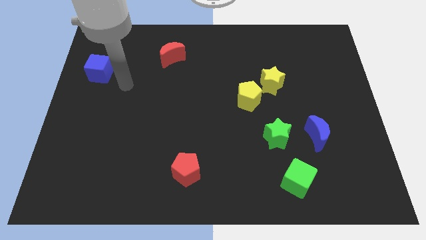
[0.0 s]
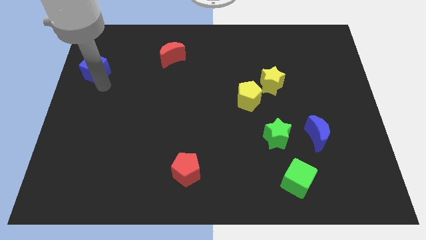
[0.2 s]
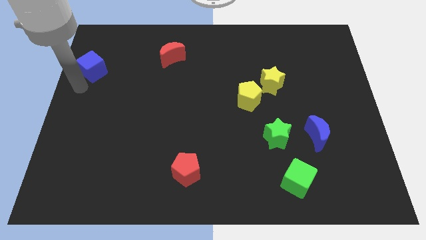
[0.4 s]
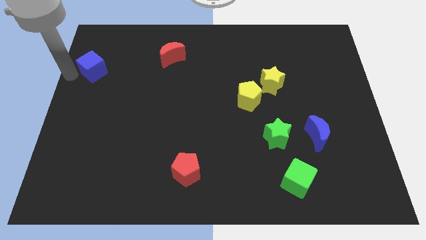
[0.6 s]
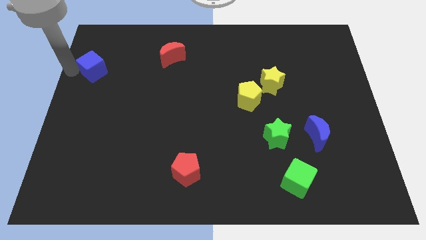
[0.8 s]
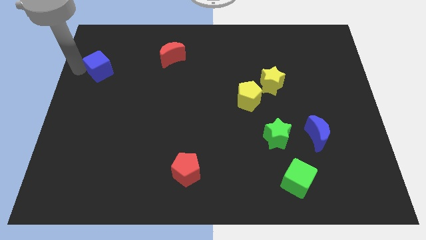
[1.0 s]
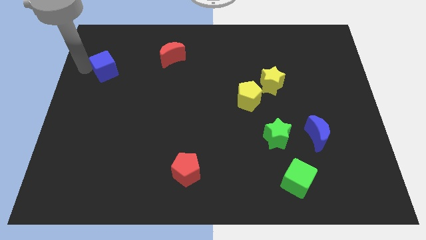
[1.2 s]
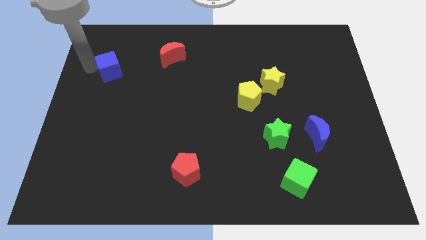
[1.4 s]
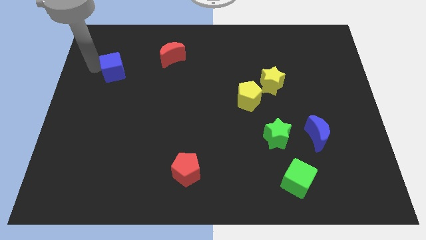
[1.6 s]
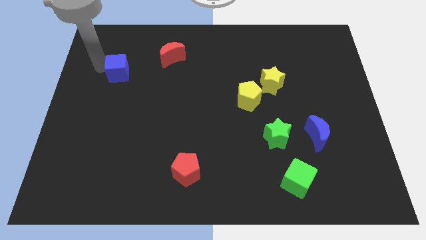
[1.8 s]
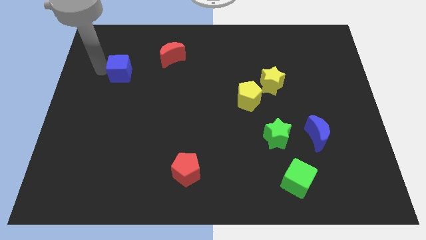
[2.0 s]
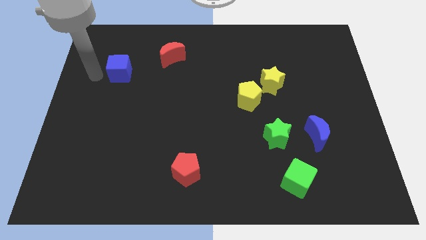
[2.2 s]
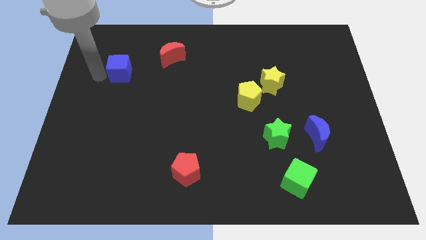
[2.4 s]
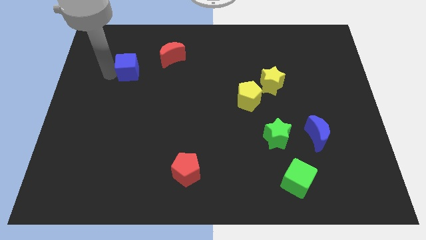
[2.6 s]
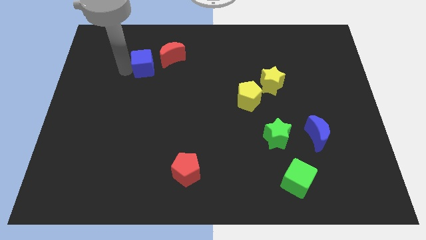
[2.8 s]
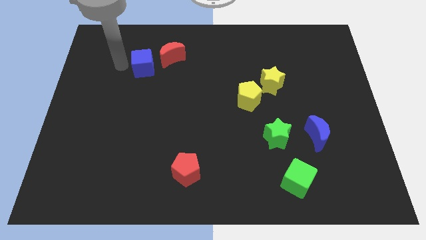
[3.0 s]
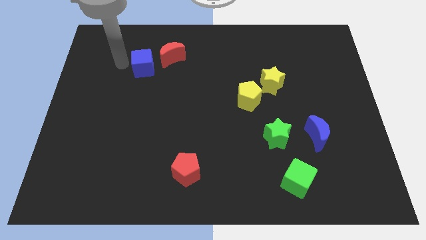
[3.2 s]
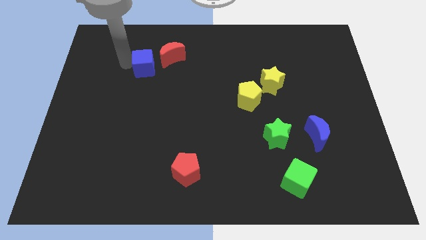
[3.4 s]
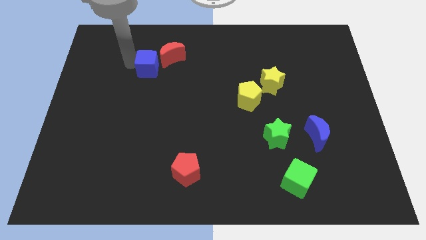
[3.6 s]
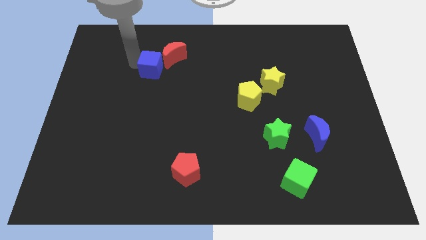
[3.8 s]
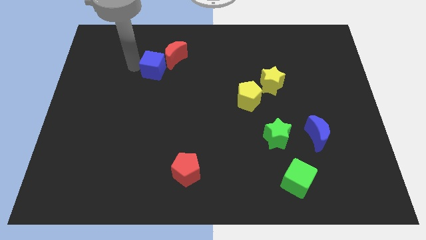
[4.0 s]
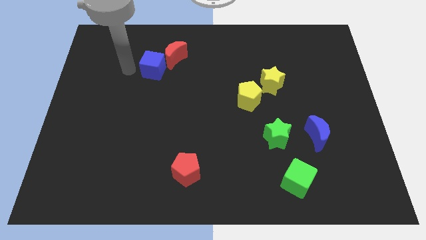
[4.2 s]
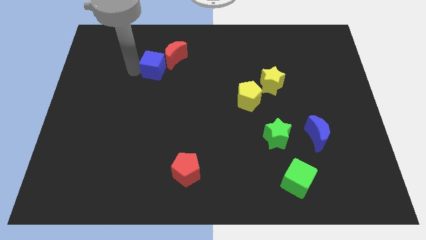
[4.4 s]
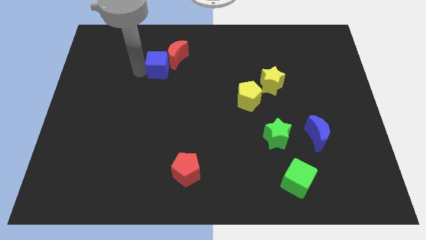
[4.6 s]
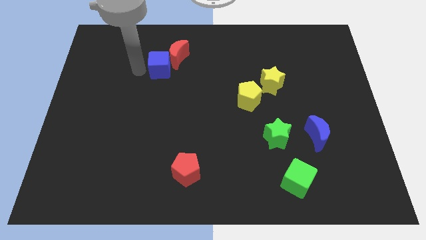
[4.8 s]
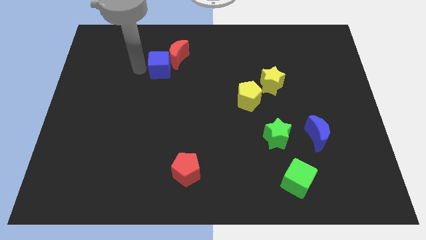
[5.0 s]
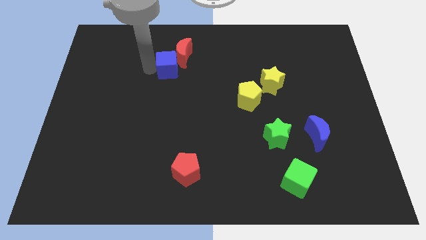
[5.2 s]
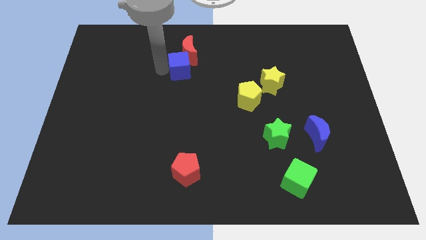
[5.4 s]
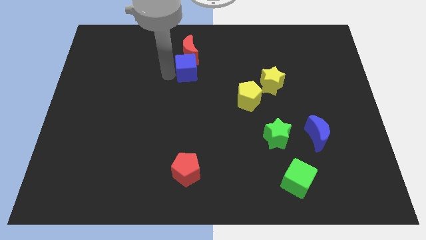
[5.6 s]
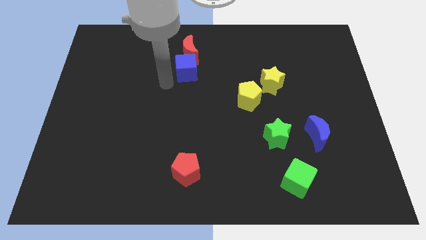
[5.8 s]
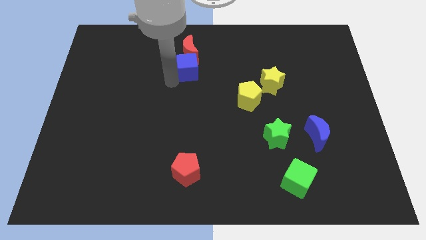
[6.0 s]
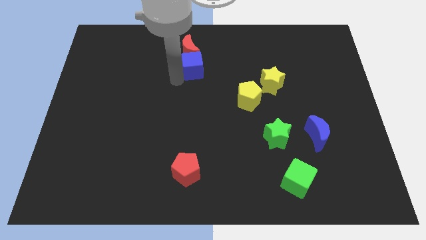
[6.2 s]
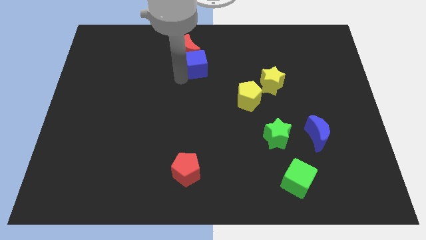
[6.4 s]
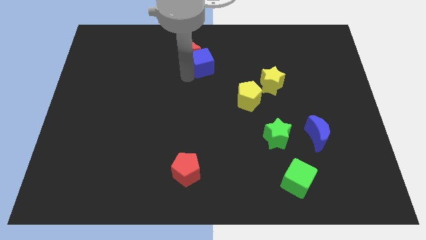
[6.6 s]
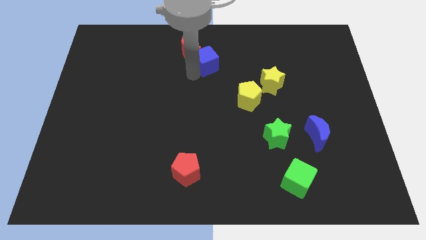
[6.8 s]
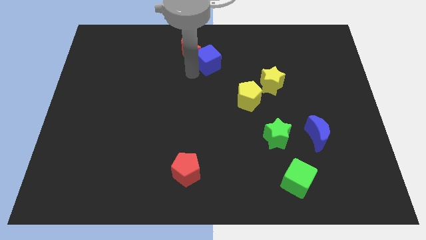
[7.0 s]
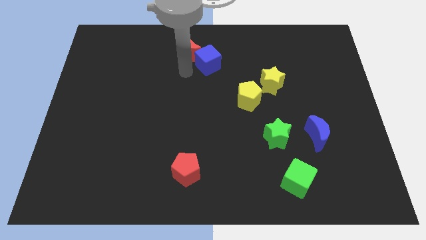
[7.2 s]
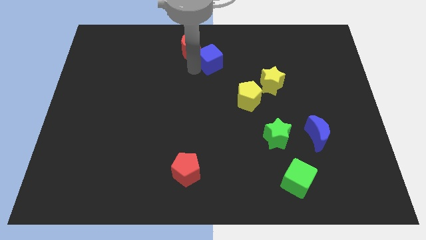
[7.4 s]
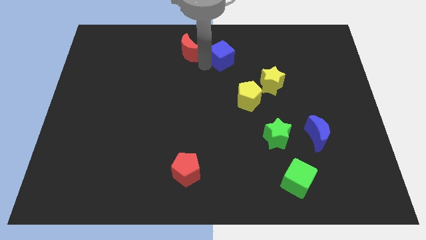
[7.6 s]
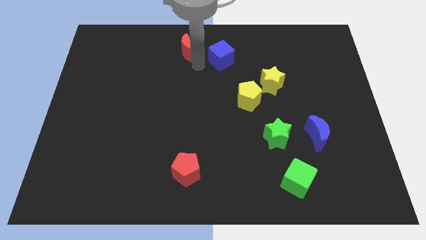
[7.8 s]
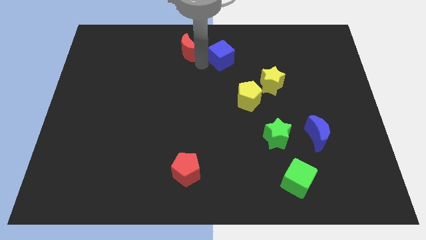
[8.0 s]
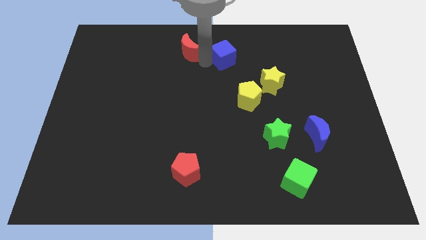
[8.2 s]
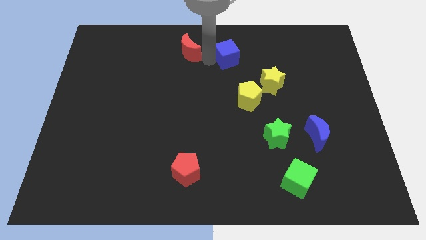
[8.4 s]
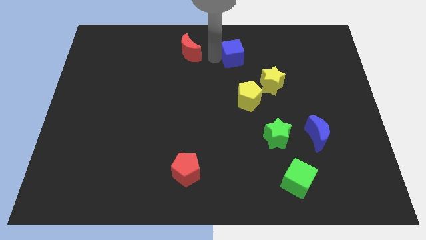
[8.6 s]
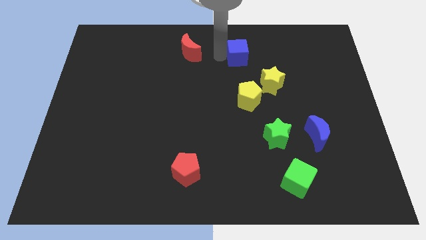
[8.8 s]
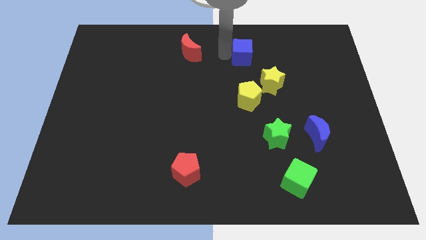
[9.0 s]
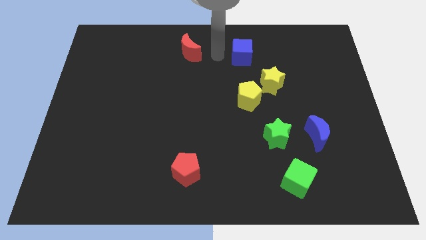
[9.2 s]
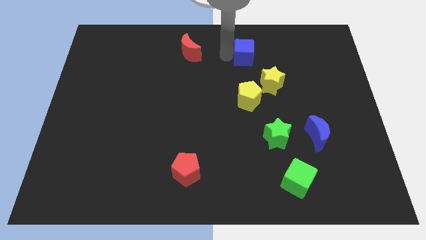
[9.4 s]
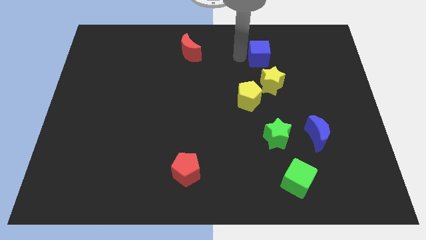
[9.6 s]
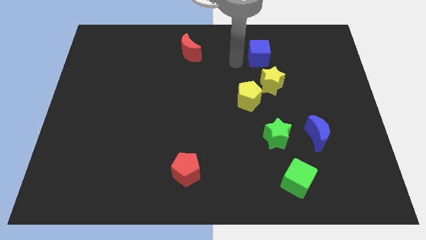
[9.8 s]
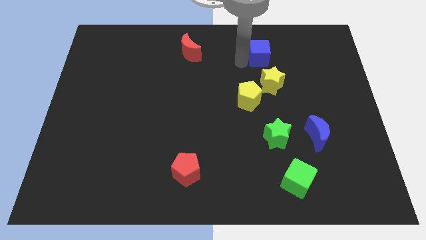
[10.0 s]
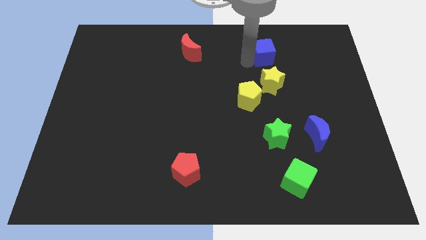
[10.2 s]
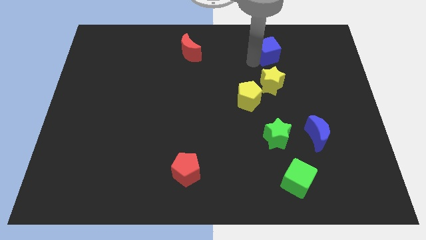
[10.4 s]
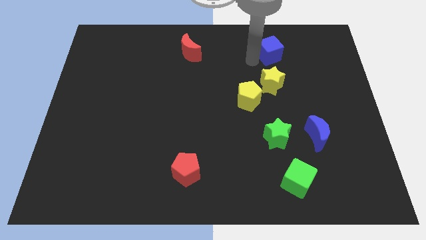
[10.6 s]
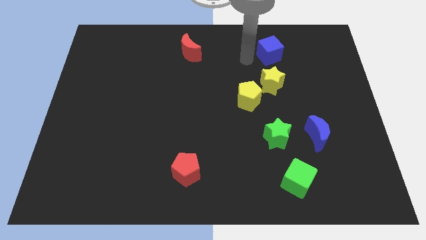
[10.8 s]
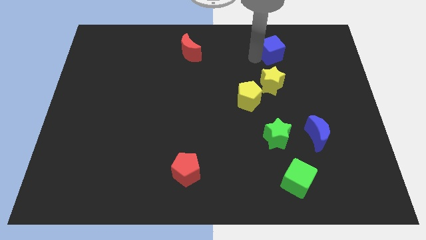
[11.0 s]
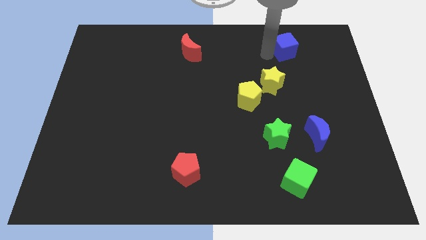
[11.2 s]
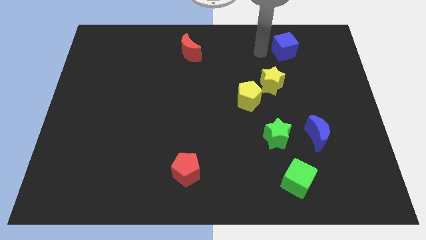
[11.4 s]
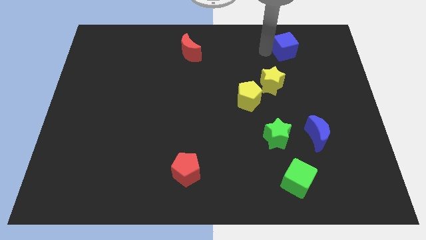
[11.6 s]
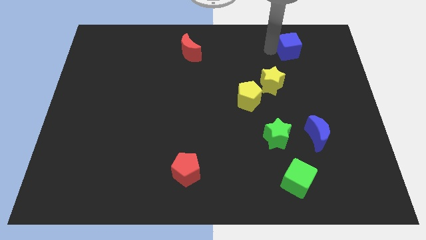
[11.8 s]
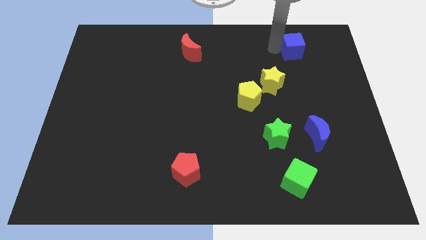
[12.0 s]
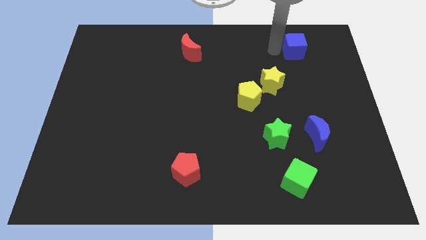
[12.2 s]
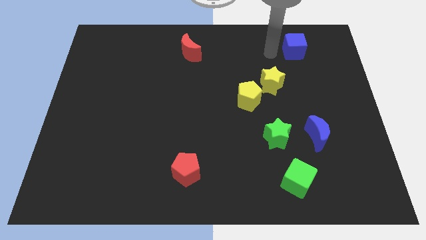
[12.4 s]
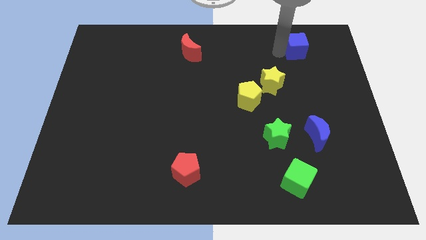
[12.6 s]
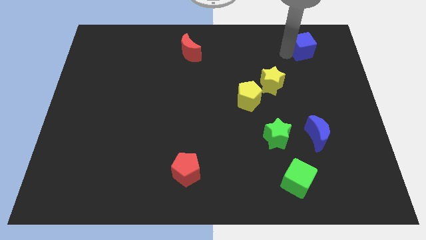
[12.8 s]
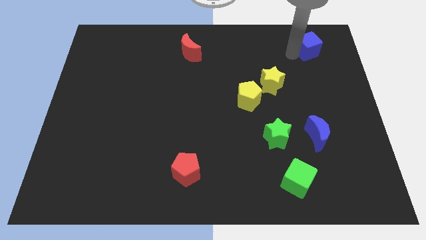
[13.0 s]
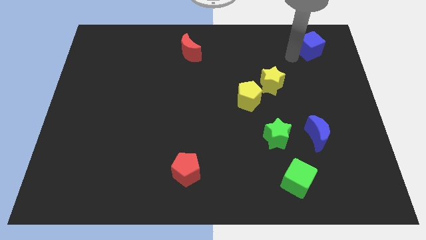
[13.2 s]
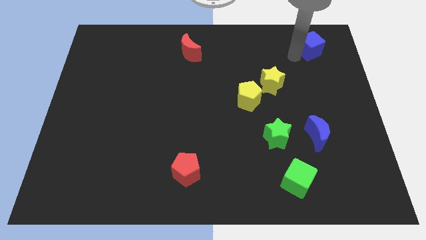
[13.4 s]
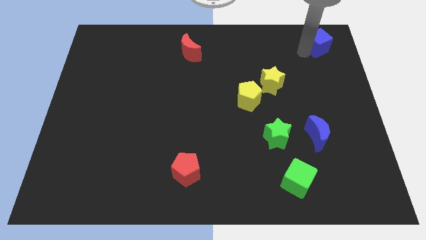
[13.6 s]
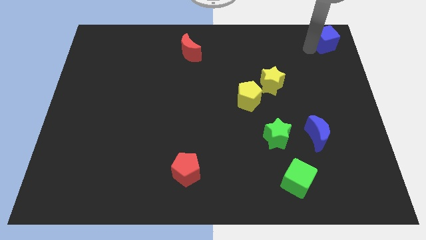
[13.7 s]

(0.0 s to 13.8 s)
slide the blue cube to the top right corner
